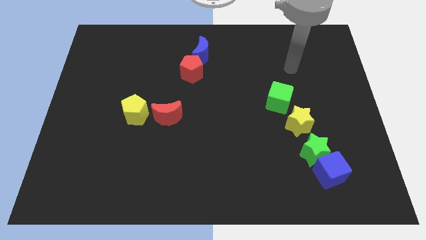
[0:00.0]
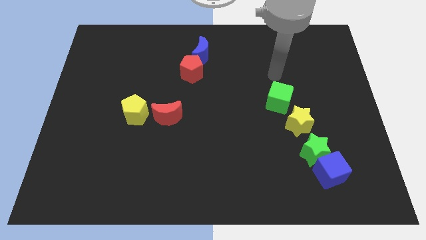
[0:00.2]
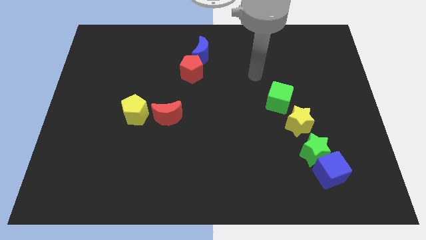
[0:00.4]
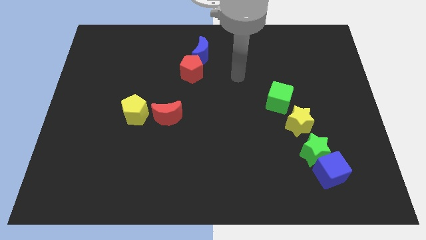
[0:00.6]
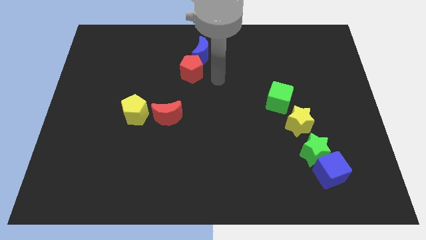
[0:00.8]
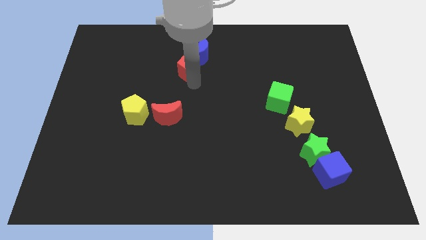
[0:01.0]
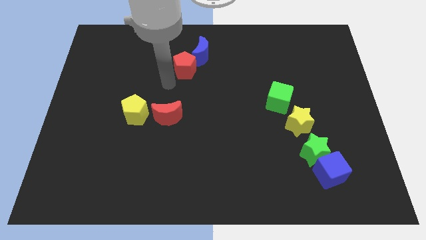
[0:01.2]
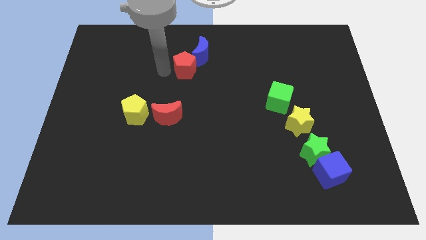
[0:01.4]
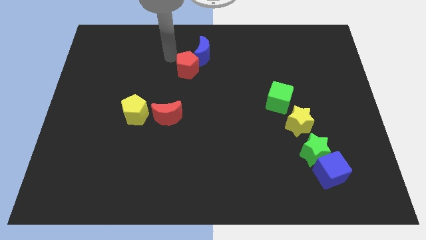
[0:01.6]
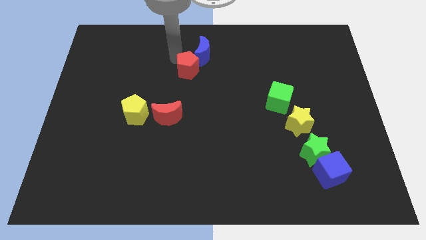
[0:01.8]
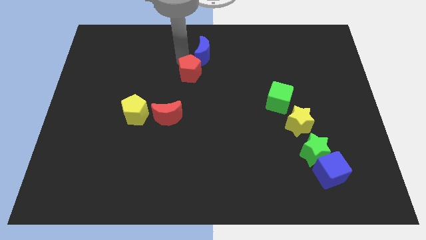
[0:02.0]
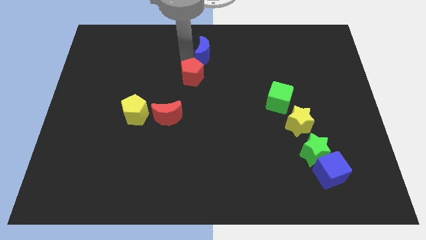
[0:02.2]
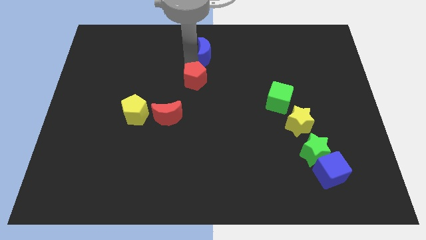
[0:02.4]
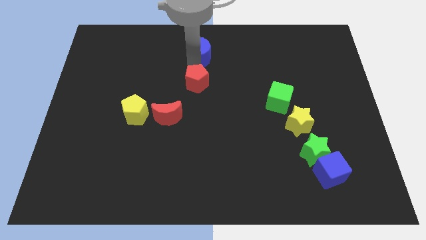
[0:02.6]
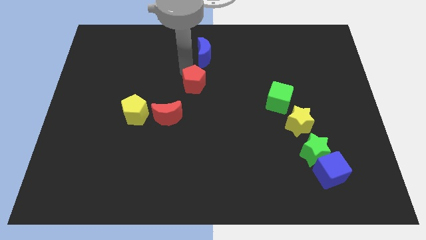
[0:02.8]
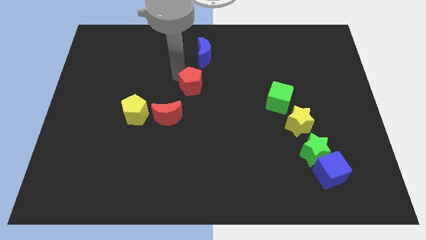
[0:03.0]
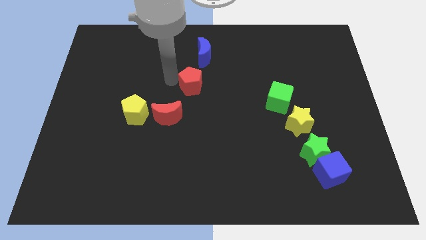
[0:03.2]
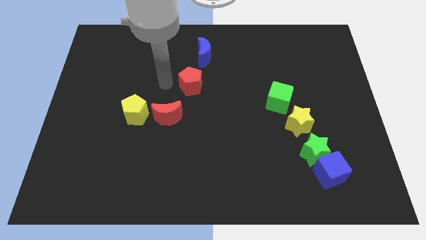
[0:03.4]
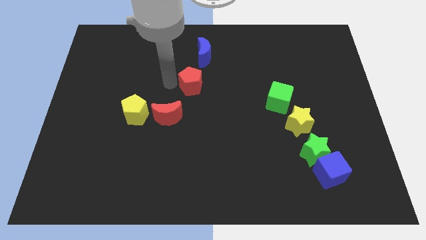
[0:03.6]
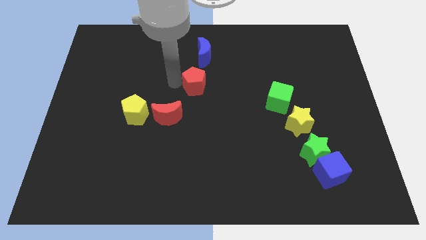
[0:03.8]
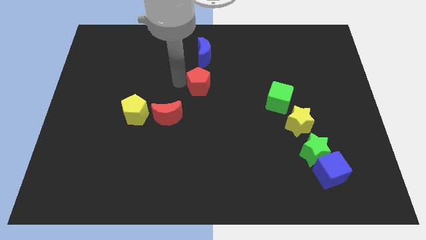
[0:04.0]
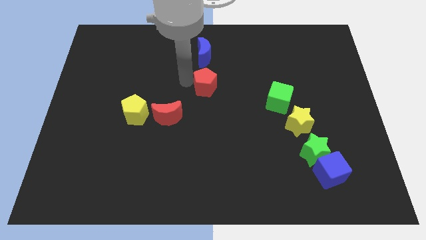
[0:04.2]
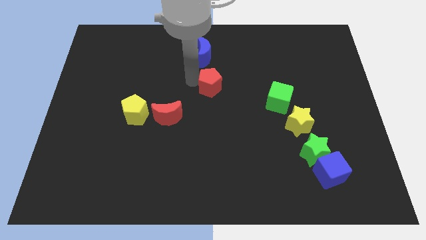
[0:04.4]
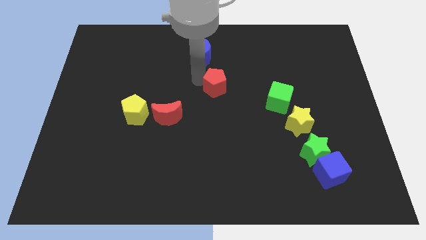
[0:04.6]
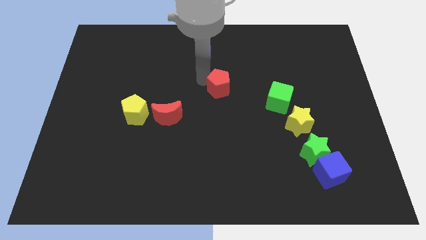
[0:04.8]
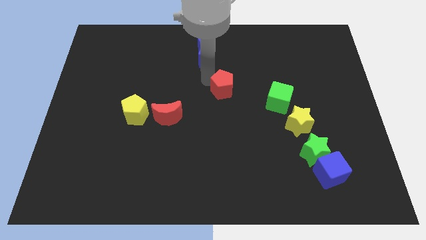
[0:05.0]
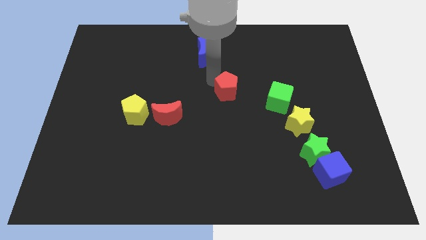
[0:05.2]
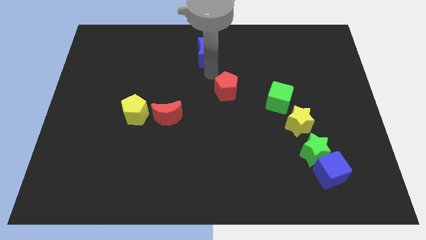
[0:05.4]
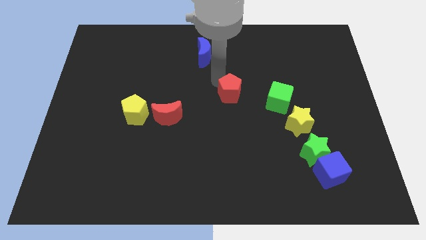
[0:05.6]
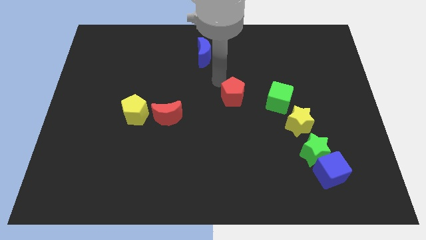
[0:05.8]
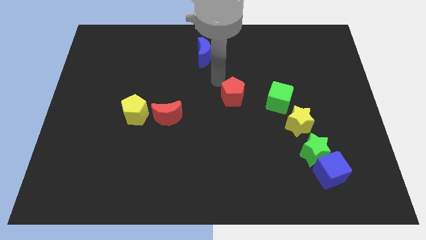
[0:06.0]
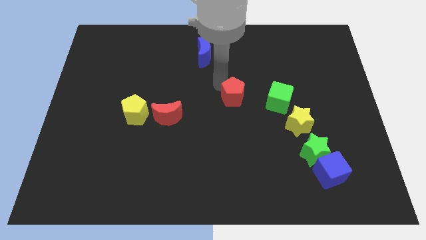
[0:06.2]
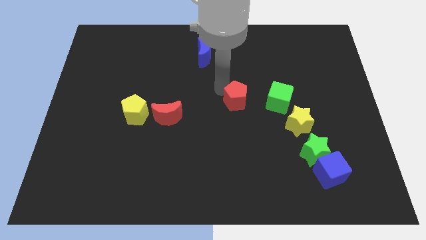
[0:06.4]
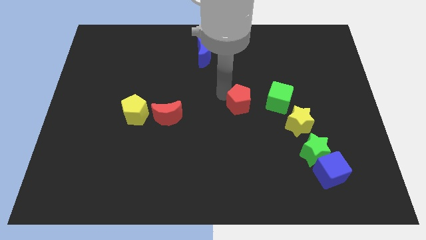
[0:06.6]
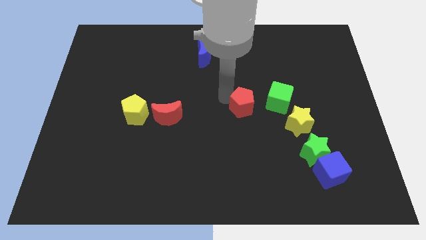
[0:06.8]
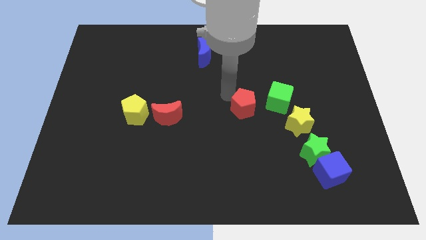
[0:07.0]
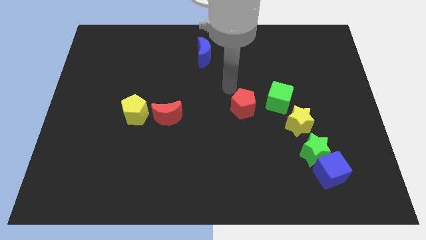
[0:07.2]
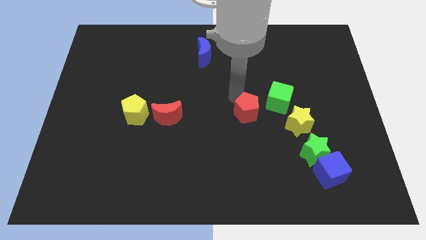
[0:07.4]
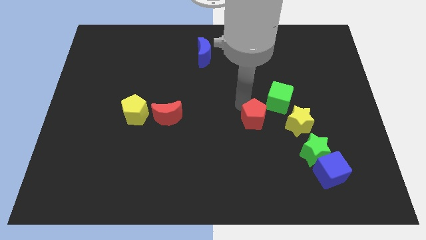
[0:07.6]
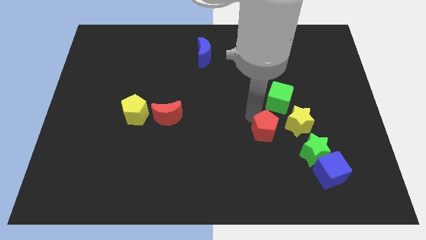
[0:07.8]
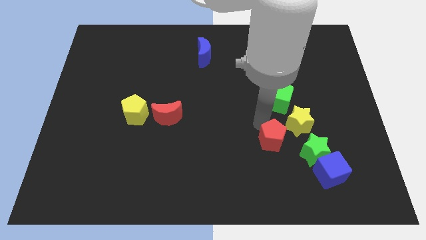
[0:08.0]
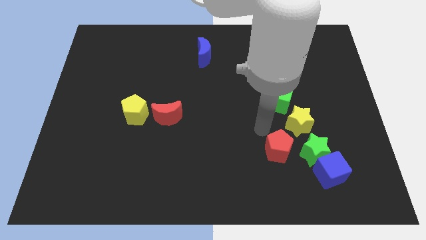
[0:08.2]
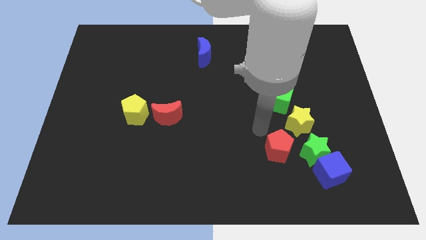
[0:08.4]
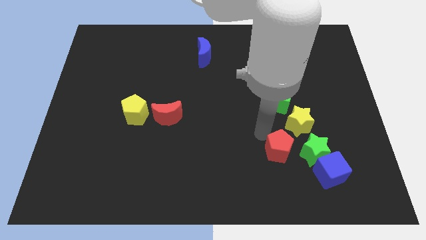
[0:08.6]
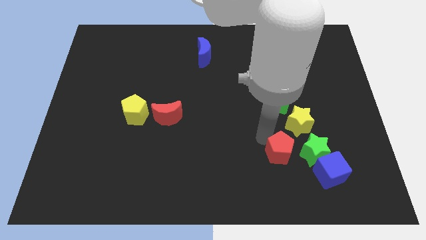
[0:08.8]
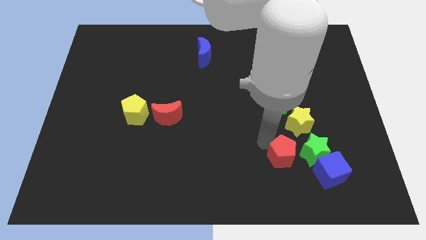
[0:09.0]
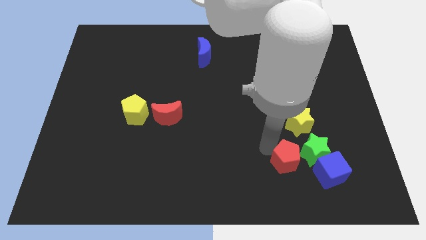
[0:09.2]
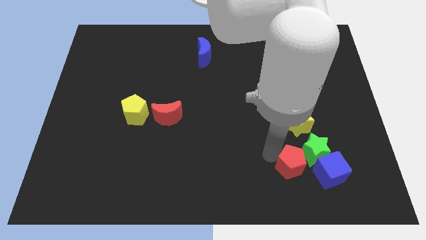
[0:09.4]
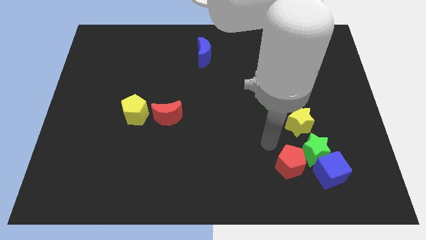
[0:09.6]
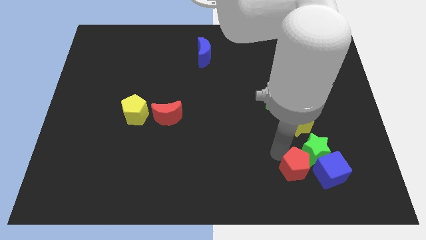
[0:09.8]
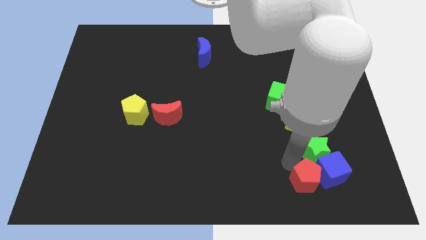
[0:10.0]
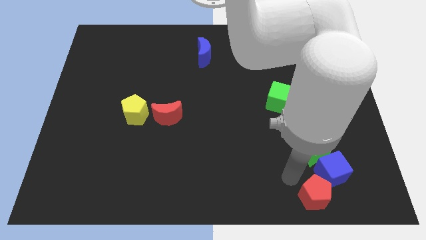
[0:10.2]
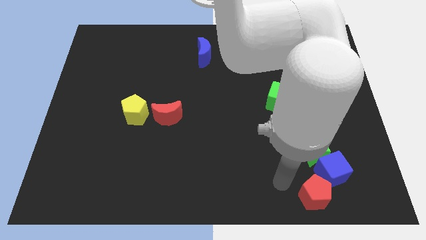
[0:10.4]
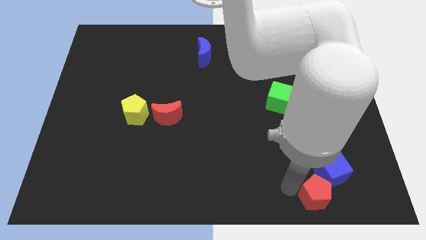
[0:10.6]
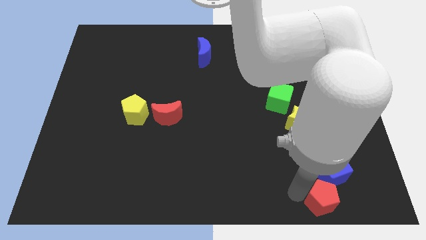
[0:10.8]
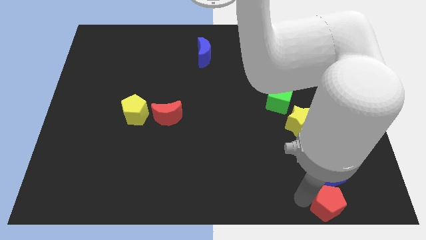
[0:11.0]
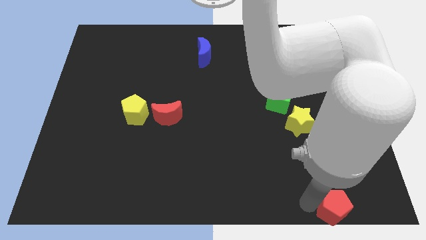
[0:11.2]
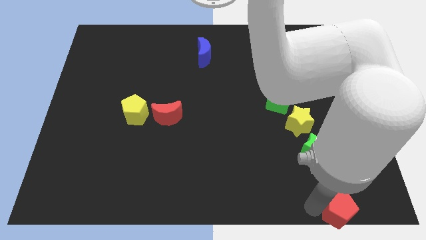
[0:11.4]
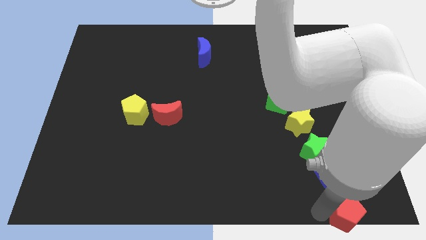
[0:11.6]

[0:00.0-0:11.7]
slide the red pentagon to the lower right corner

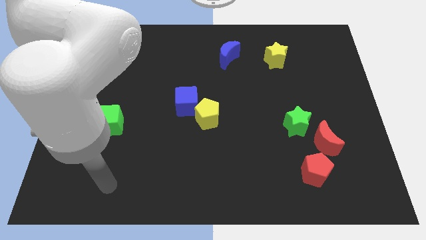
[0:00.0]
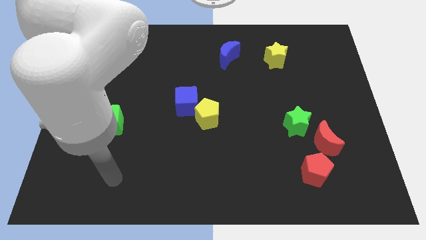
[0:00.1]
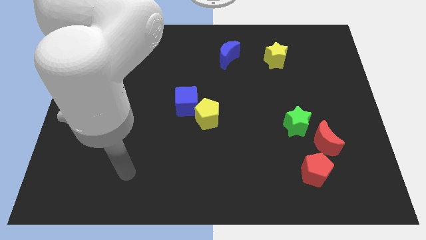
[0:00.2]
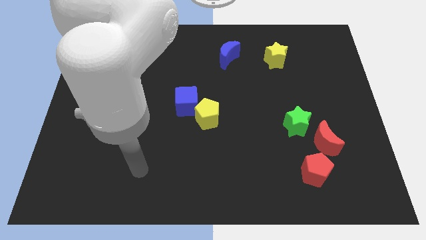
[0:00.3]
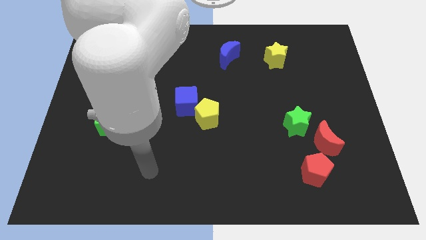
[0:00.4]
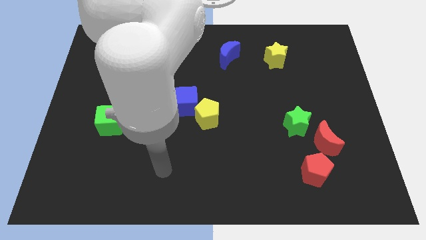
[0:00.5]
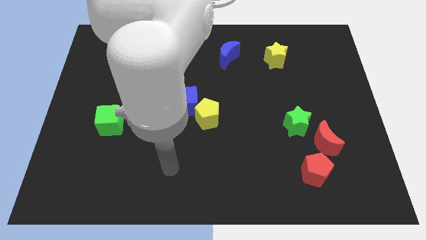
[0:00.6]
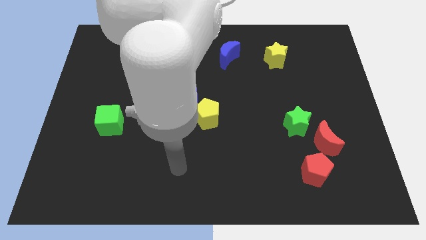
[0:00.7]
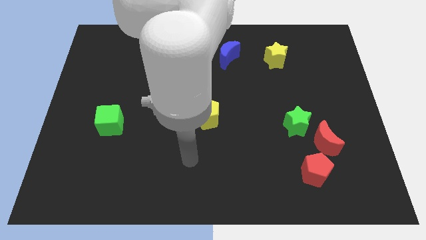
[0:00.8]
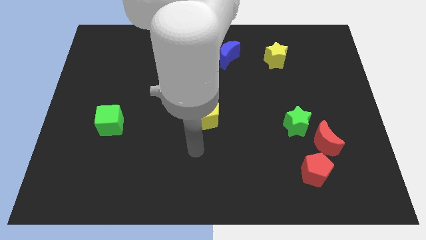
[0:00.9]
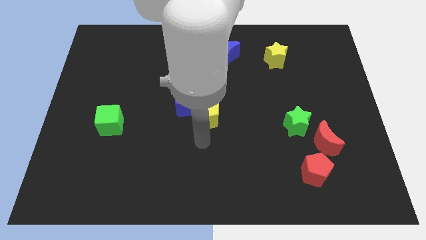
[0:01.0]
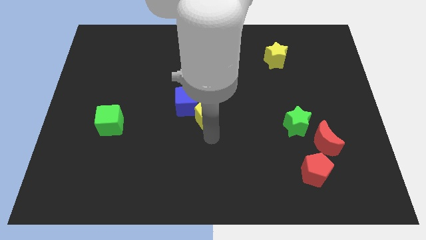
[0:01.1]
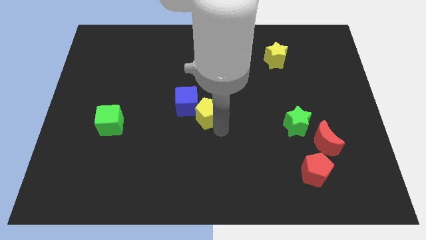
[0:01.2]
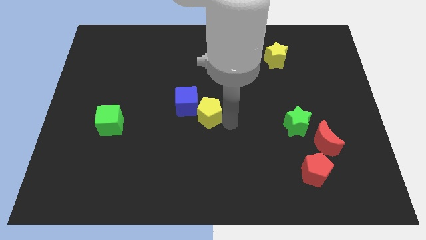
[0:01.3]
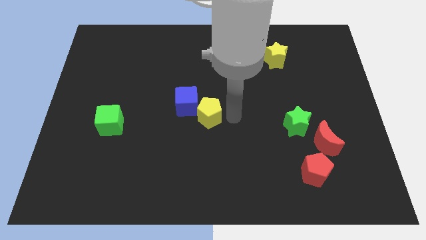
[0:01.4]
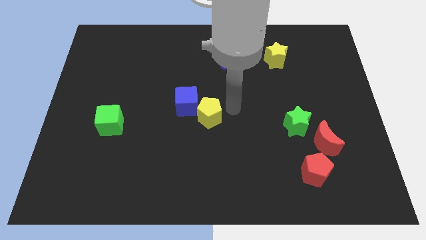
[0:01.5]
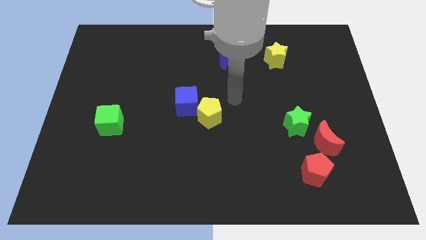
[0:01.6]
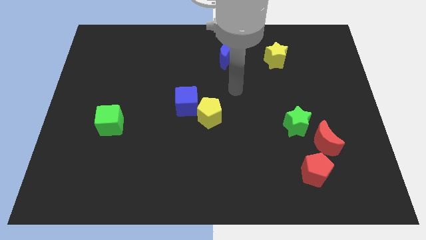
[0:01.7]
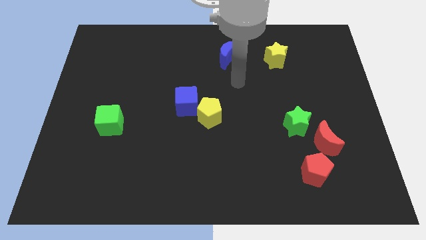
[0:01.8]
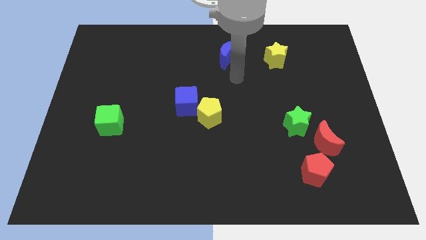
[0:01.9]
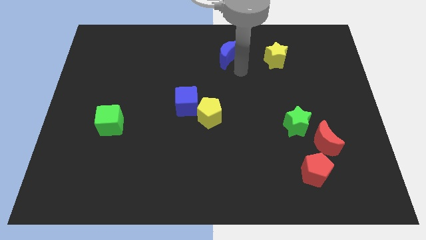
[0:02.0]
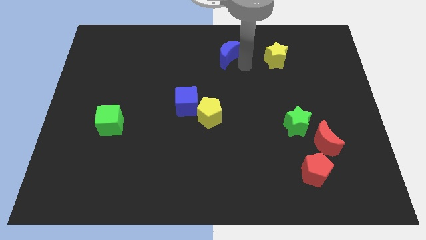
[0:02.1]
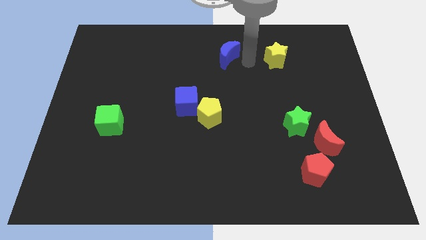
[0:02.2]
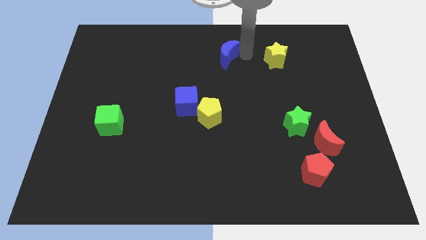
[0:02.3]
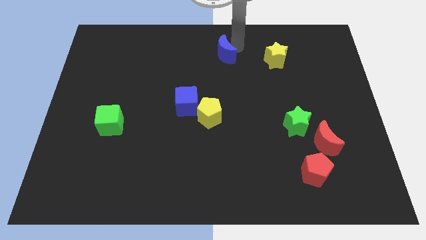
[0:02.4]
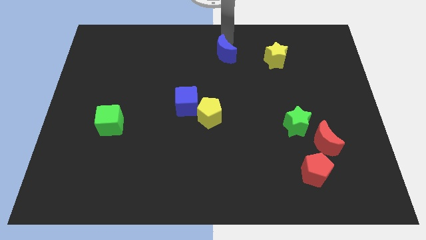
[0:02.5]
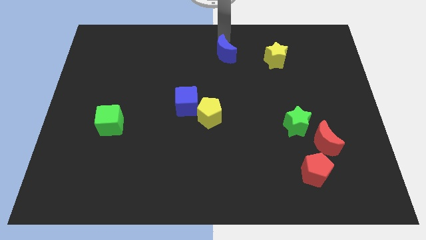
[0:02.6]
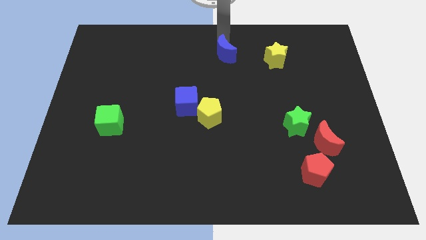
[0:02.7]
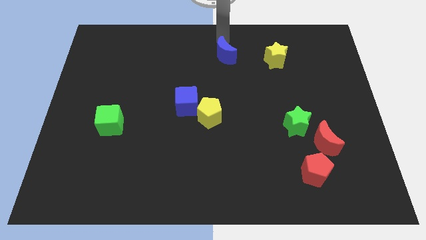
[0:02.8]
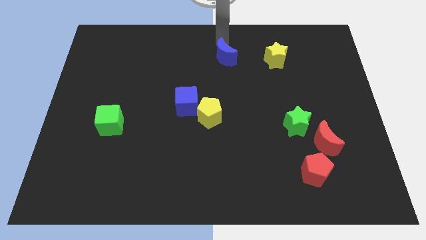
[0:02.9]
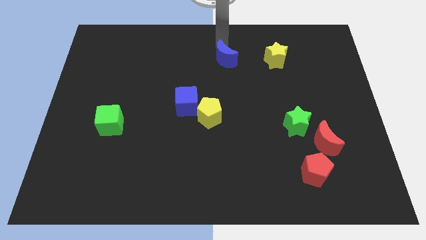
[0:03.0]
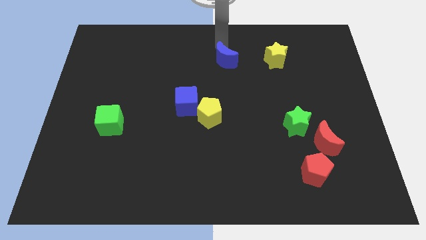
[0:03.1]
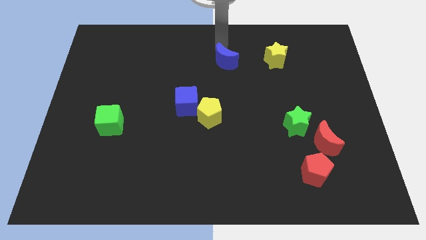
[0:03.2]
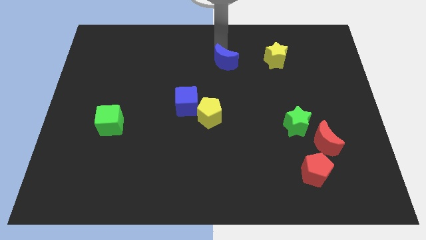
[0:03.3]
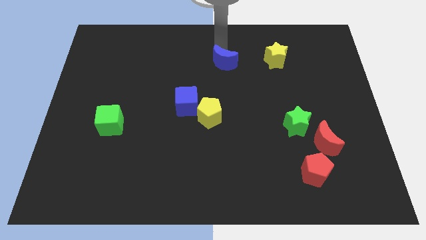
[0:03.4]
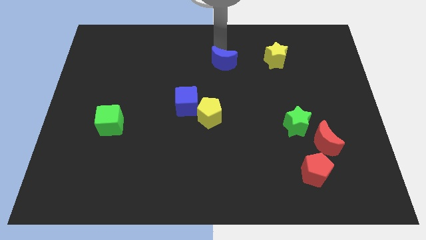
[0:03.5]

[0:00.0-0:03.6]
put the blue moon to the center
